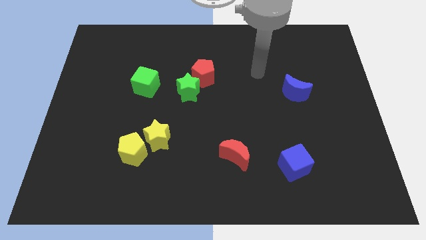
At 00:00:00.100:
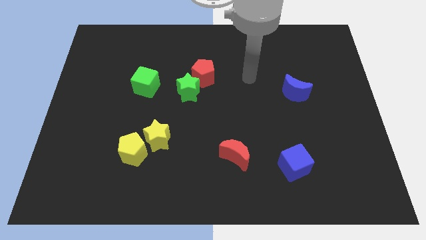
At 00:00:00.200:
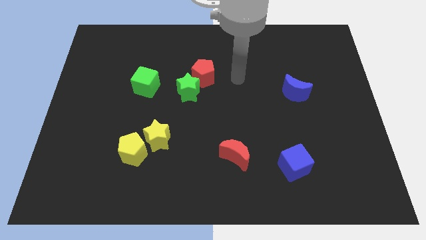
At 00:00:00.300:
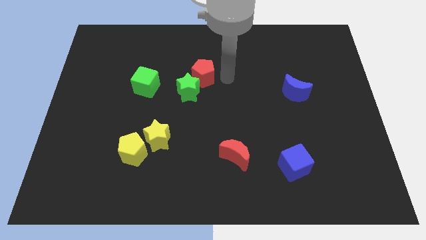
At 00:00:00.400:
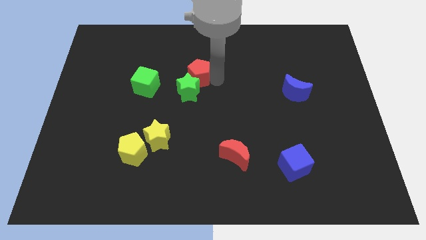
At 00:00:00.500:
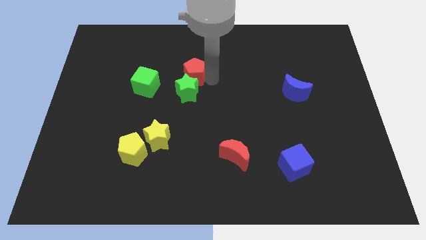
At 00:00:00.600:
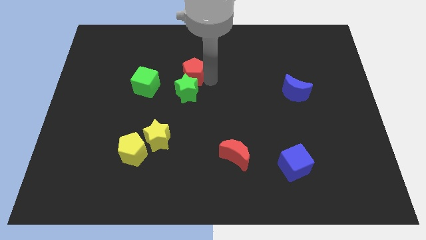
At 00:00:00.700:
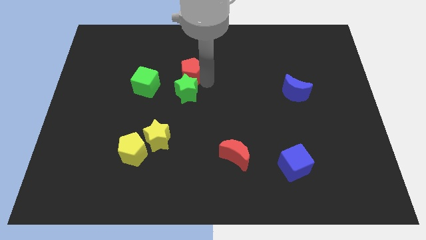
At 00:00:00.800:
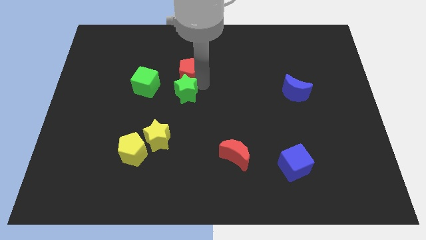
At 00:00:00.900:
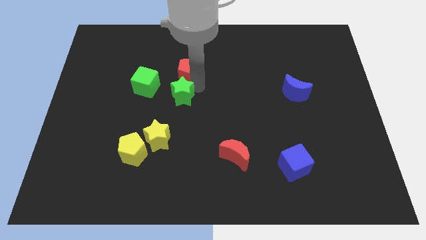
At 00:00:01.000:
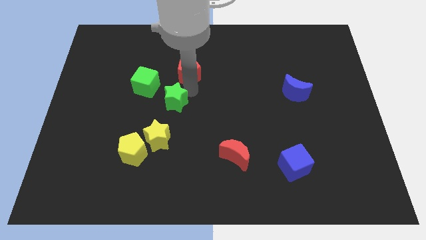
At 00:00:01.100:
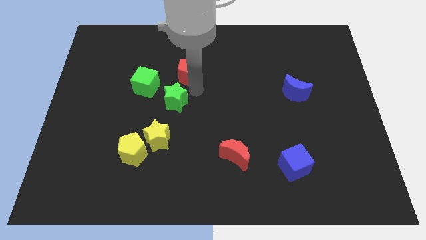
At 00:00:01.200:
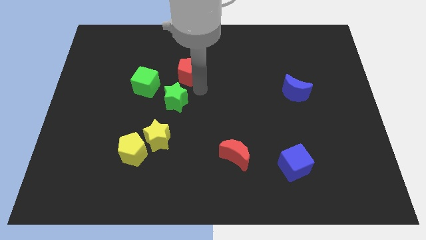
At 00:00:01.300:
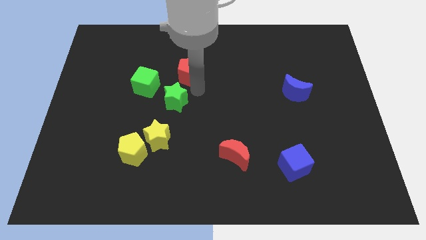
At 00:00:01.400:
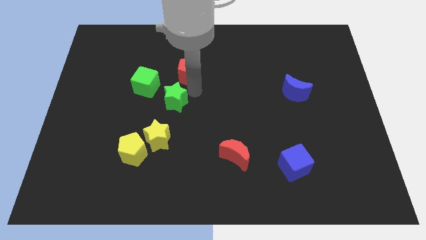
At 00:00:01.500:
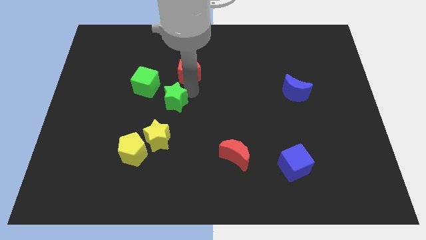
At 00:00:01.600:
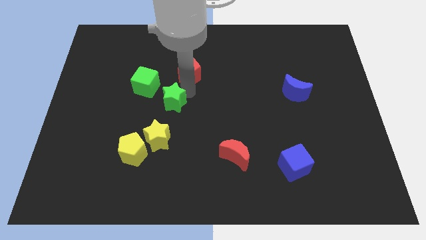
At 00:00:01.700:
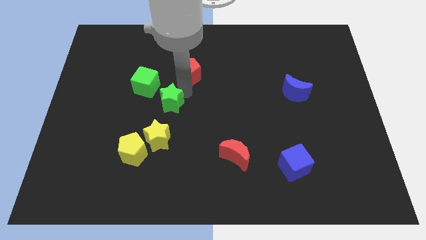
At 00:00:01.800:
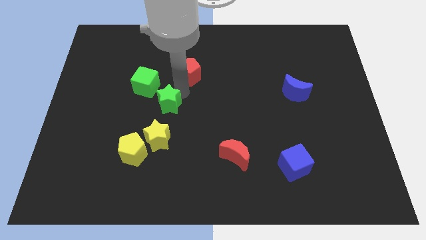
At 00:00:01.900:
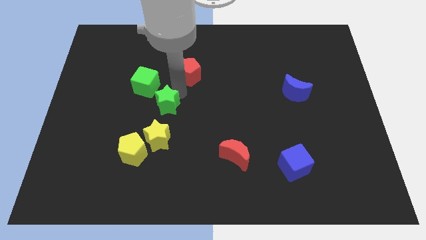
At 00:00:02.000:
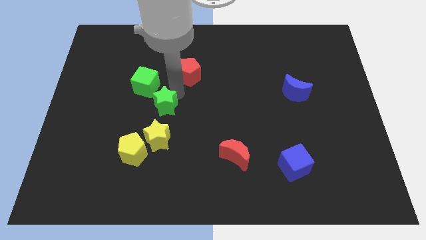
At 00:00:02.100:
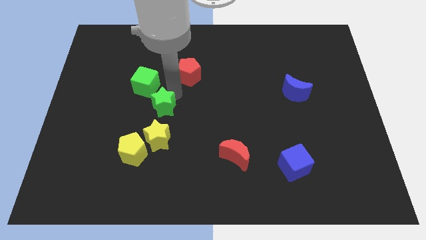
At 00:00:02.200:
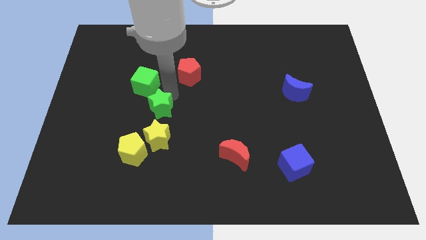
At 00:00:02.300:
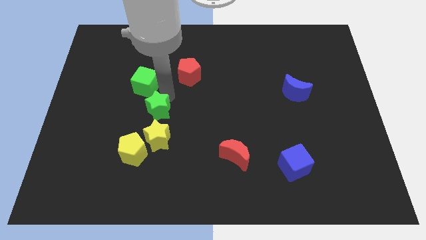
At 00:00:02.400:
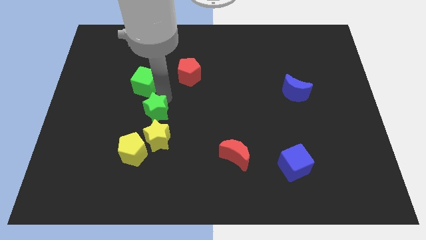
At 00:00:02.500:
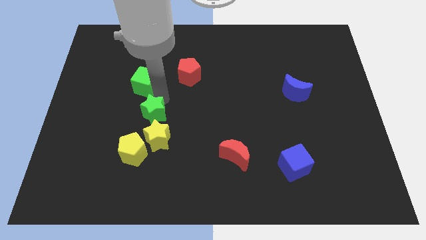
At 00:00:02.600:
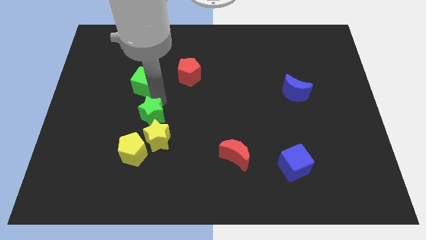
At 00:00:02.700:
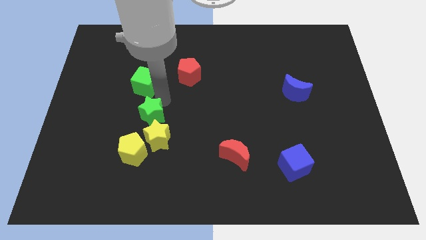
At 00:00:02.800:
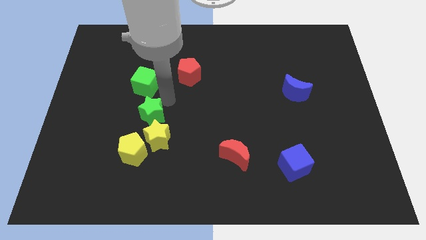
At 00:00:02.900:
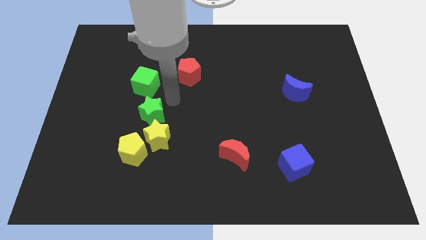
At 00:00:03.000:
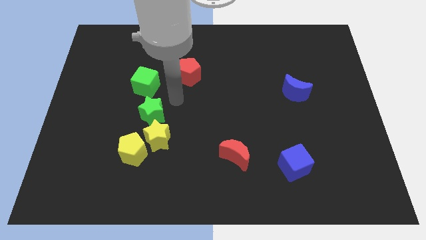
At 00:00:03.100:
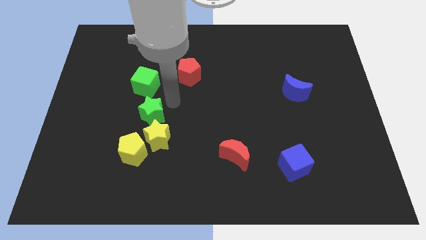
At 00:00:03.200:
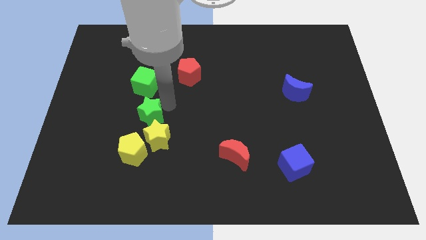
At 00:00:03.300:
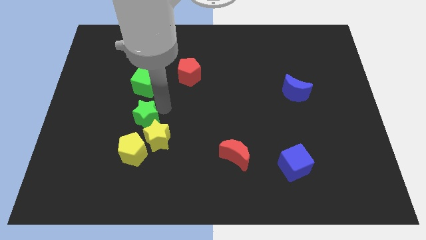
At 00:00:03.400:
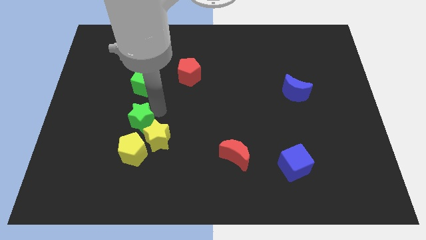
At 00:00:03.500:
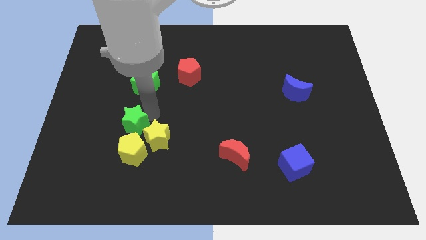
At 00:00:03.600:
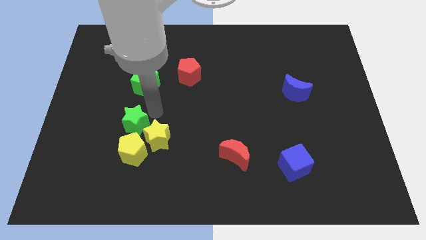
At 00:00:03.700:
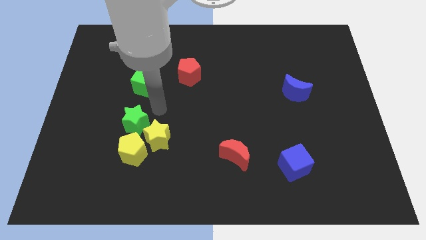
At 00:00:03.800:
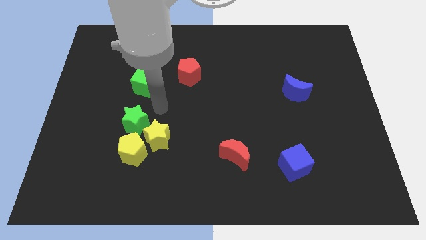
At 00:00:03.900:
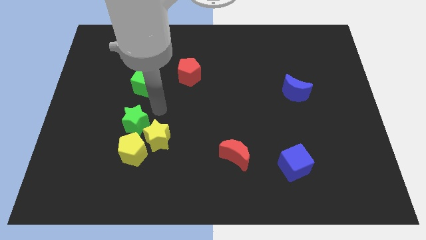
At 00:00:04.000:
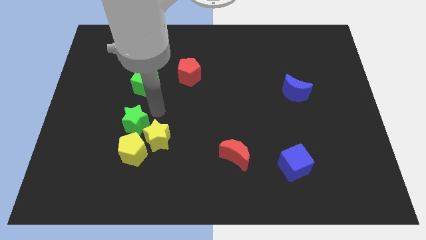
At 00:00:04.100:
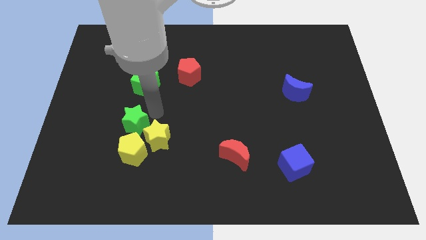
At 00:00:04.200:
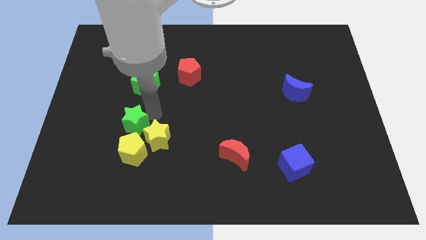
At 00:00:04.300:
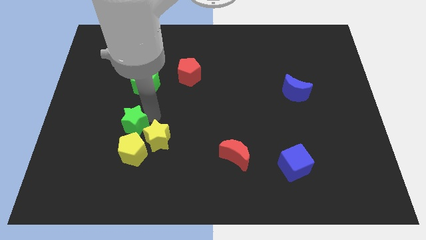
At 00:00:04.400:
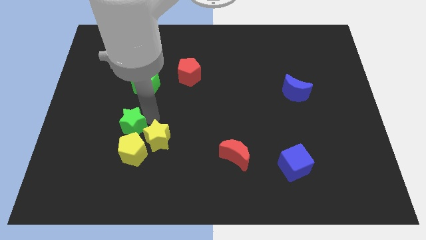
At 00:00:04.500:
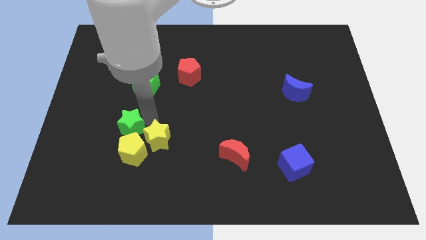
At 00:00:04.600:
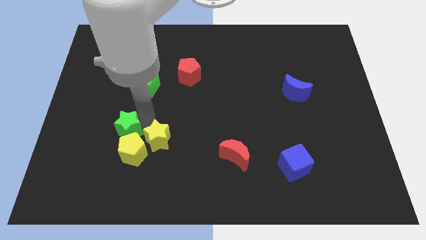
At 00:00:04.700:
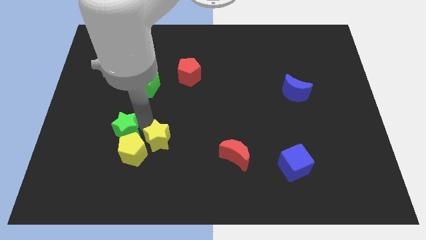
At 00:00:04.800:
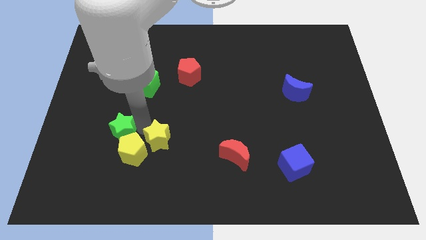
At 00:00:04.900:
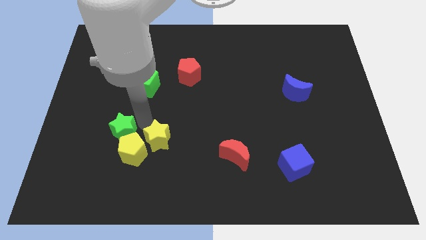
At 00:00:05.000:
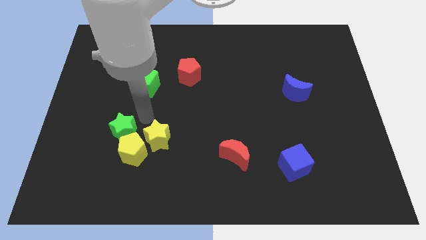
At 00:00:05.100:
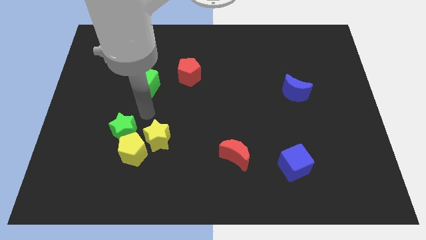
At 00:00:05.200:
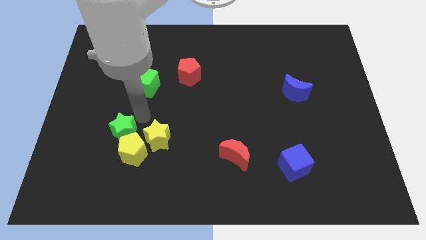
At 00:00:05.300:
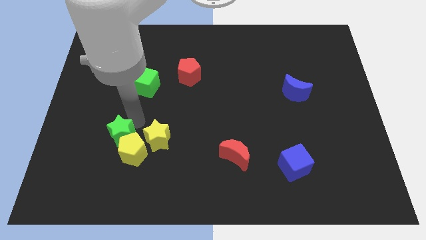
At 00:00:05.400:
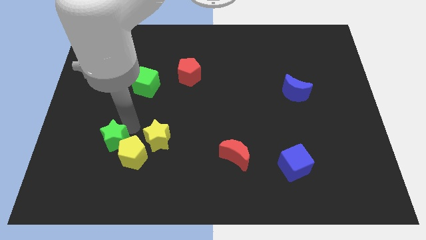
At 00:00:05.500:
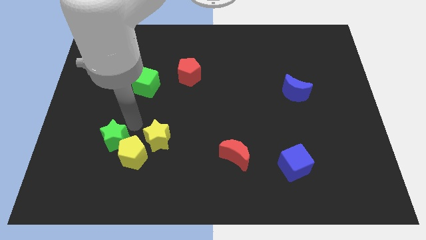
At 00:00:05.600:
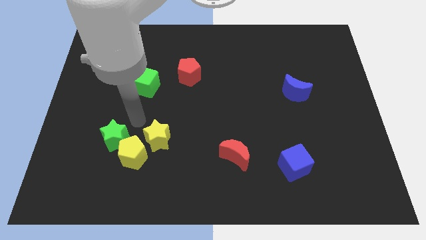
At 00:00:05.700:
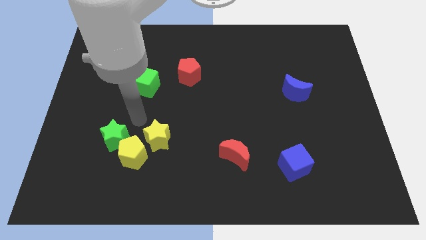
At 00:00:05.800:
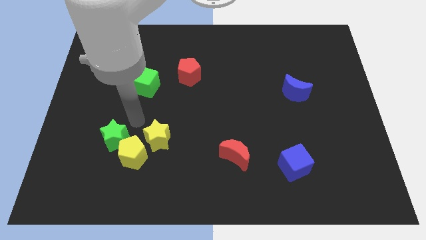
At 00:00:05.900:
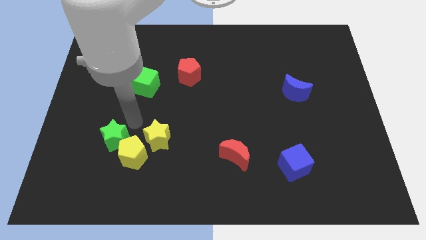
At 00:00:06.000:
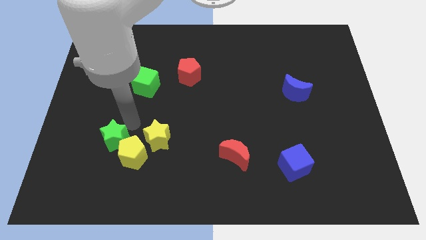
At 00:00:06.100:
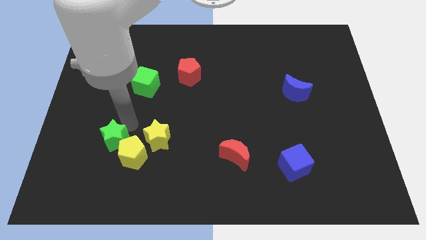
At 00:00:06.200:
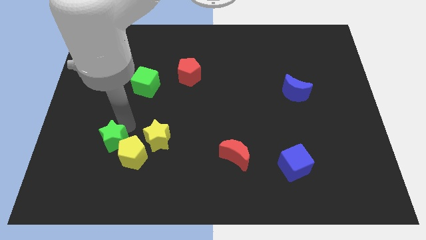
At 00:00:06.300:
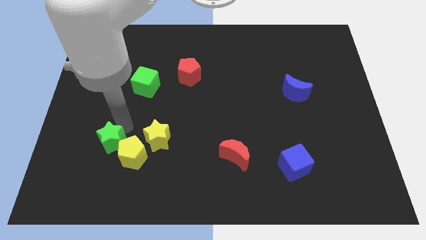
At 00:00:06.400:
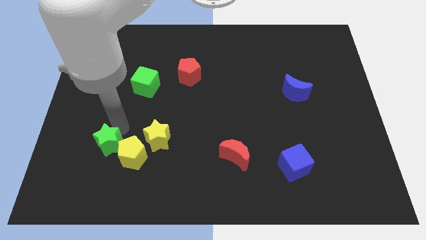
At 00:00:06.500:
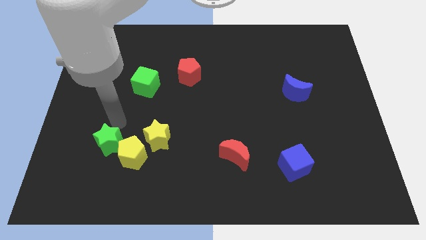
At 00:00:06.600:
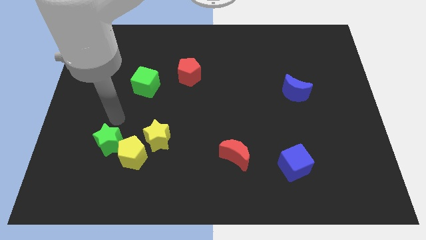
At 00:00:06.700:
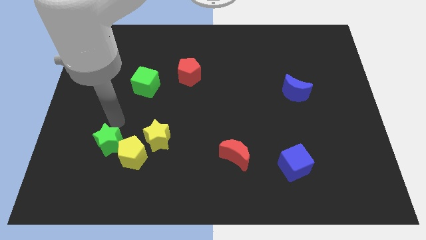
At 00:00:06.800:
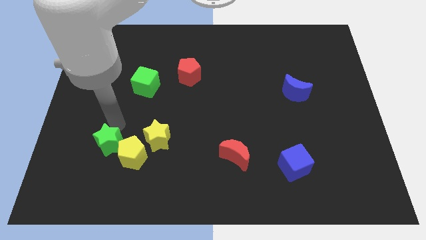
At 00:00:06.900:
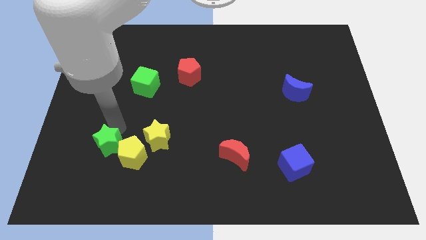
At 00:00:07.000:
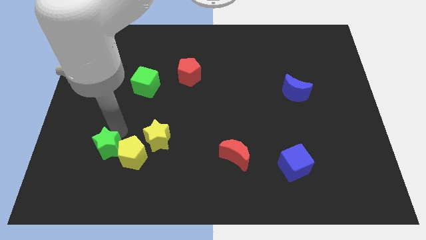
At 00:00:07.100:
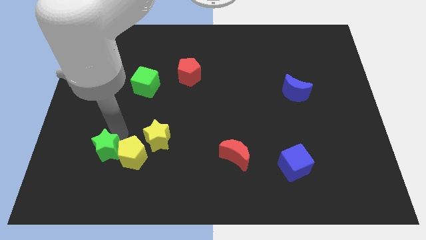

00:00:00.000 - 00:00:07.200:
slide the green star to the bottom left side of the yellow pentagon
